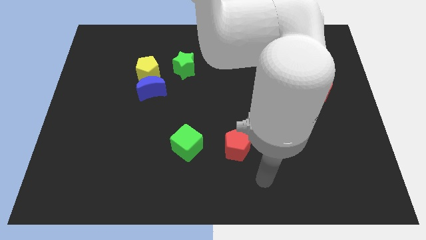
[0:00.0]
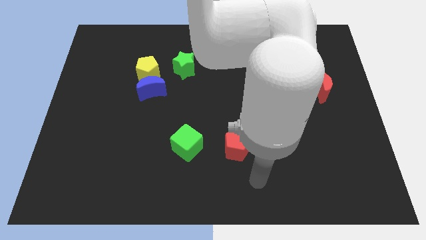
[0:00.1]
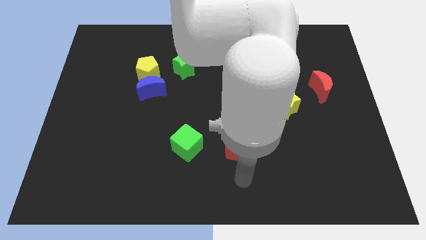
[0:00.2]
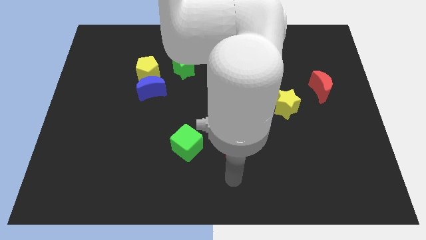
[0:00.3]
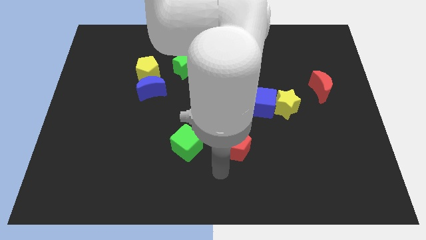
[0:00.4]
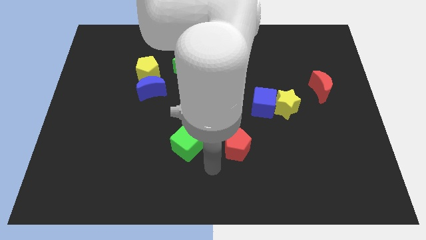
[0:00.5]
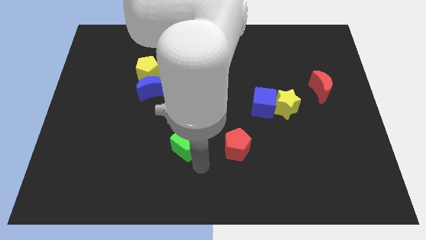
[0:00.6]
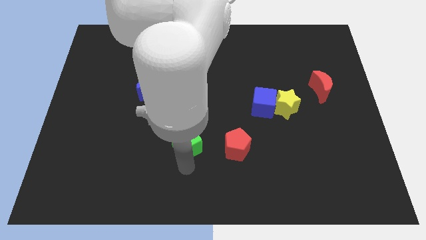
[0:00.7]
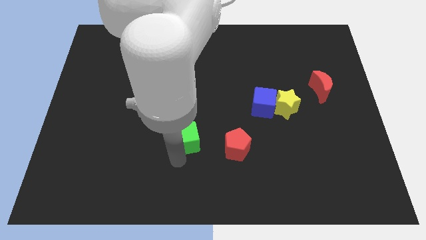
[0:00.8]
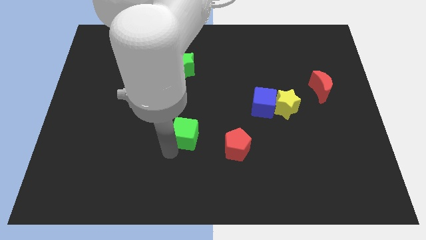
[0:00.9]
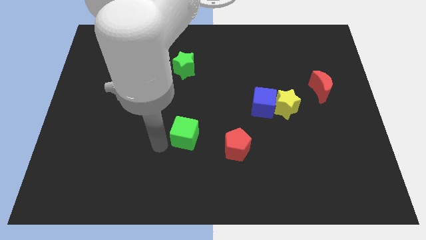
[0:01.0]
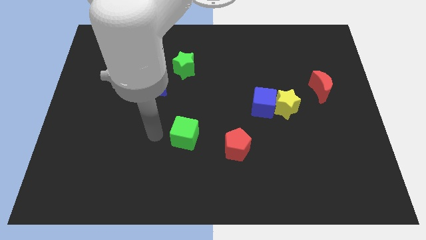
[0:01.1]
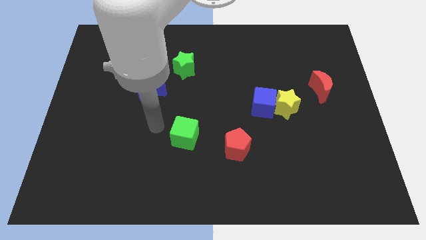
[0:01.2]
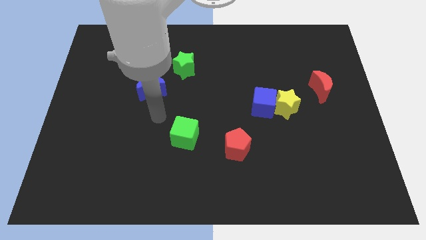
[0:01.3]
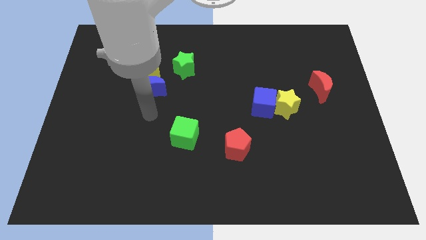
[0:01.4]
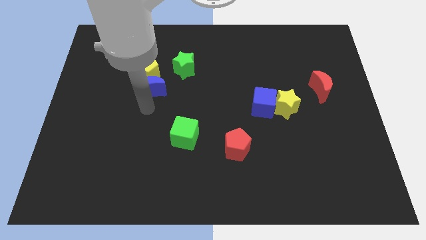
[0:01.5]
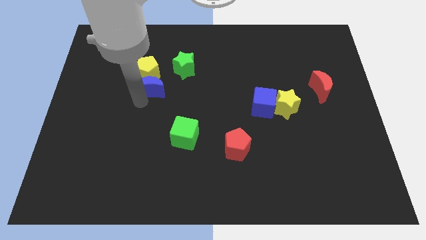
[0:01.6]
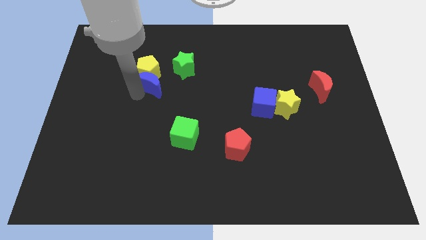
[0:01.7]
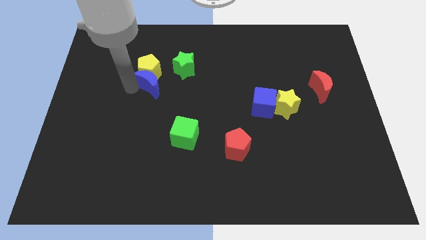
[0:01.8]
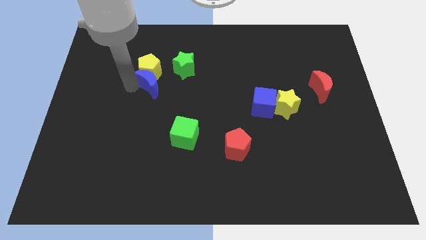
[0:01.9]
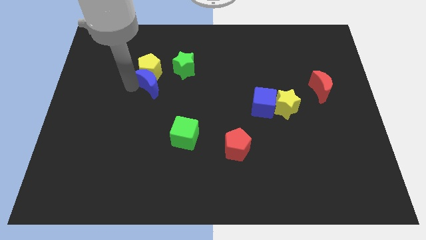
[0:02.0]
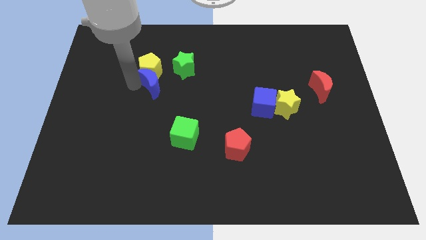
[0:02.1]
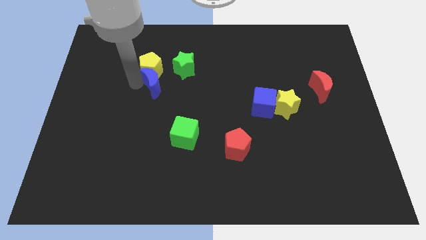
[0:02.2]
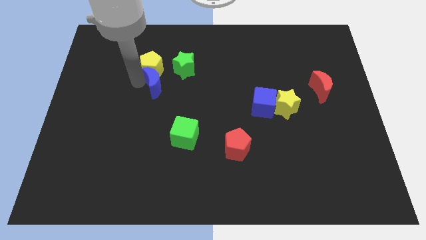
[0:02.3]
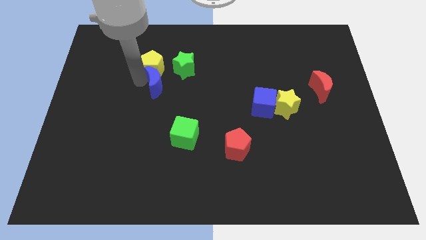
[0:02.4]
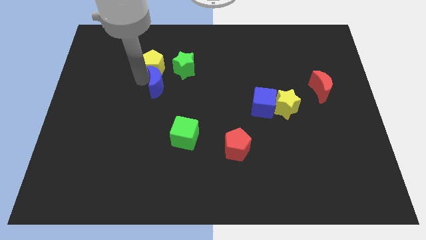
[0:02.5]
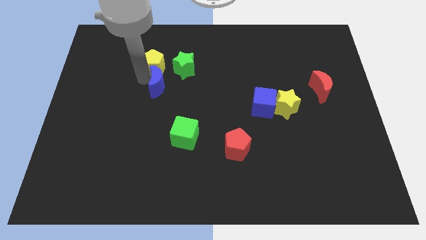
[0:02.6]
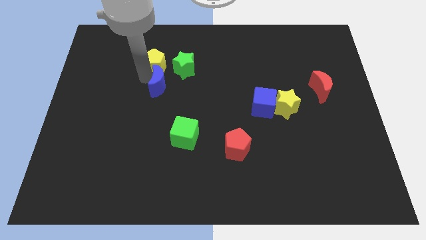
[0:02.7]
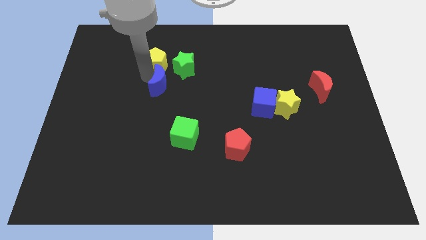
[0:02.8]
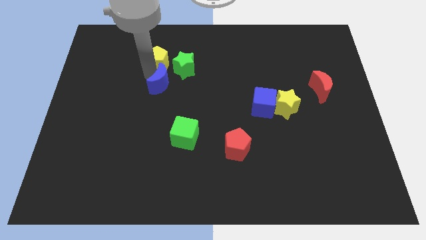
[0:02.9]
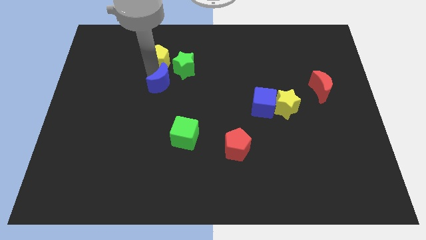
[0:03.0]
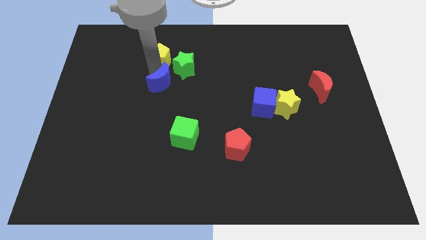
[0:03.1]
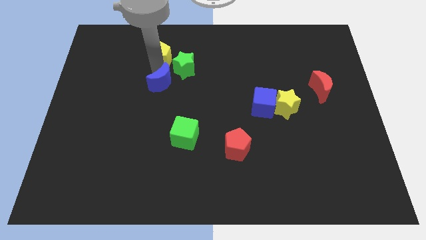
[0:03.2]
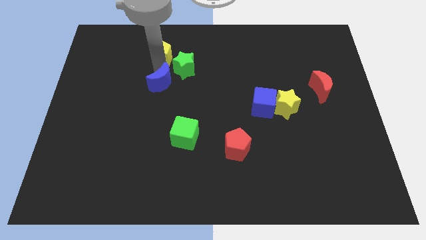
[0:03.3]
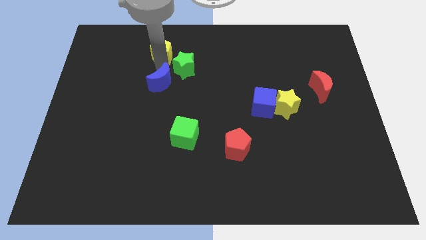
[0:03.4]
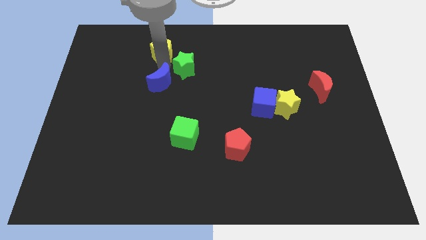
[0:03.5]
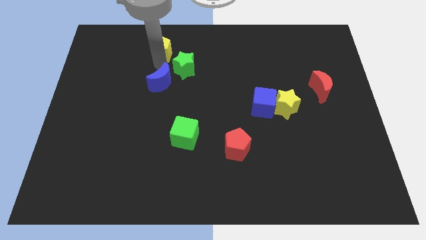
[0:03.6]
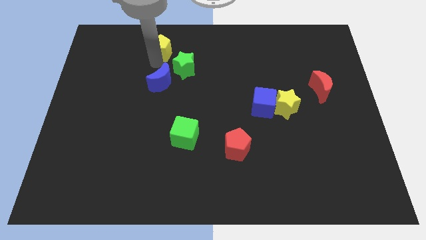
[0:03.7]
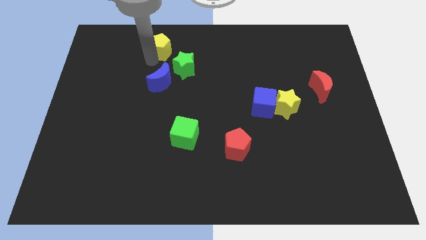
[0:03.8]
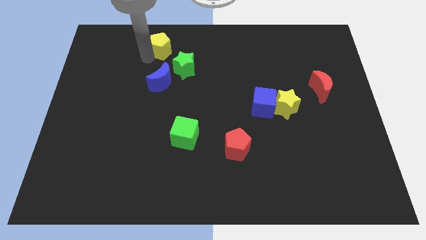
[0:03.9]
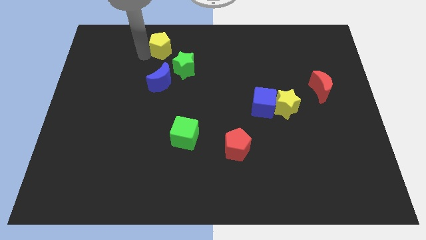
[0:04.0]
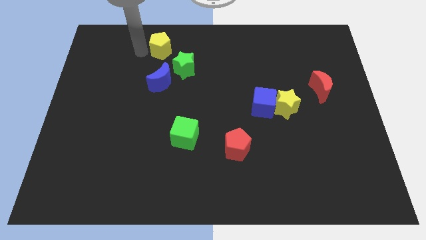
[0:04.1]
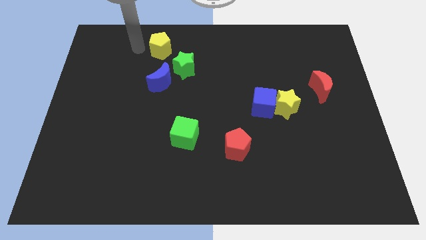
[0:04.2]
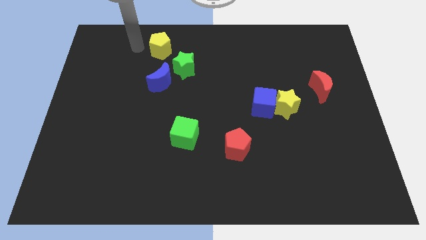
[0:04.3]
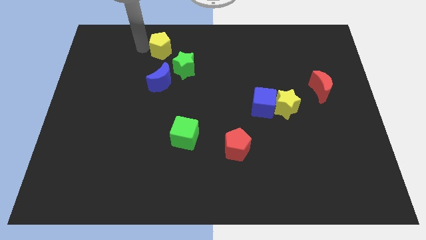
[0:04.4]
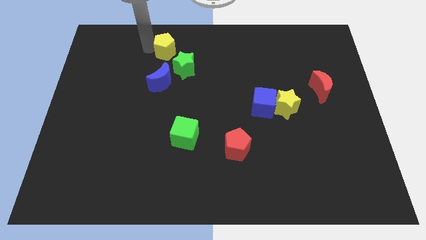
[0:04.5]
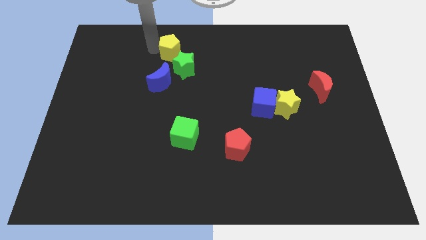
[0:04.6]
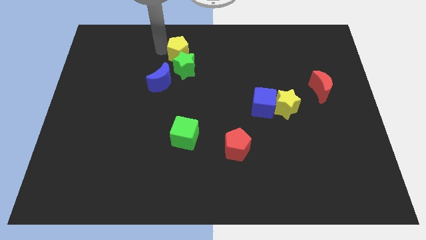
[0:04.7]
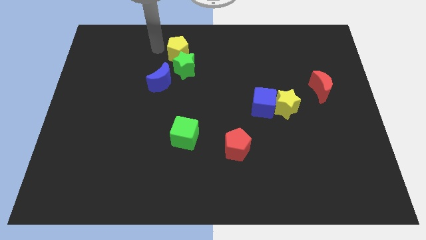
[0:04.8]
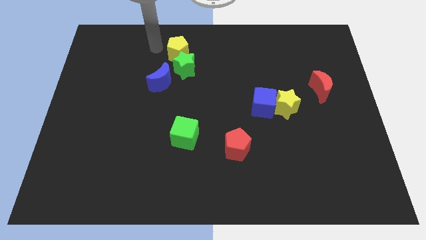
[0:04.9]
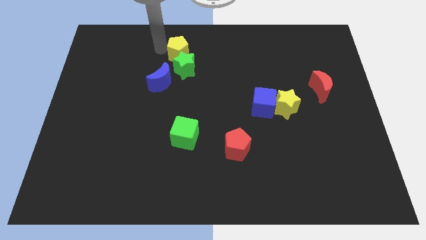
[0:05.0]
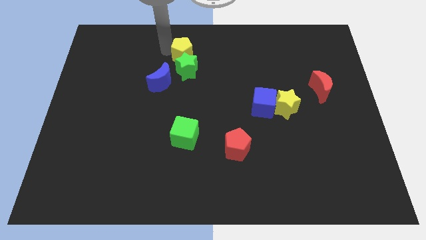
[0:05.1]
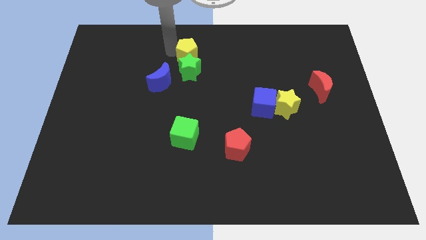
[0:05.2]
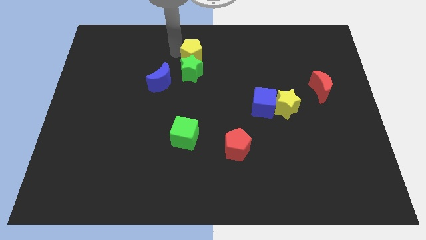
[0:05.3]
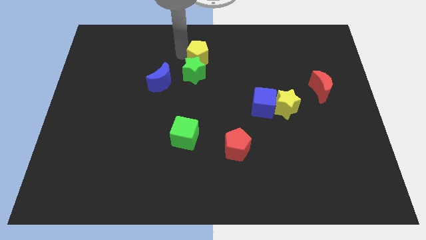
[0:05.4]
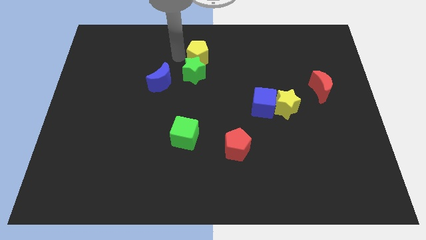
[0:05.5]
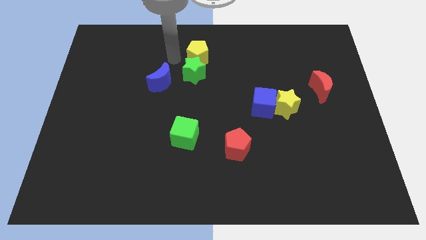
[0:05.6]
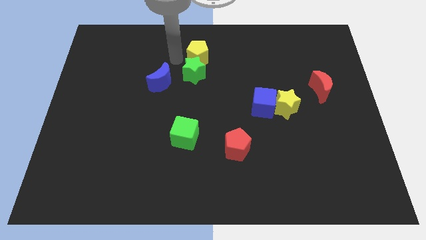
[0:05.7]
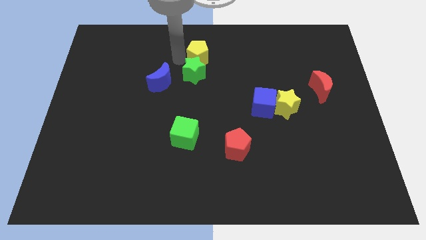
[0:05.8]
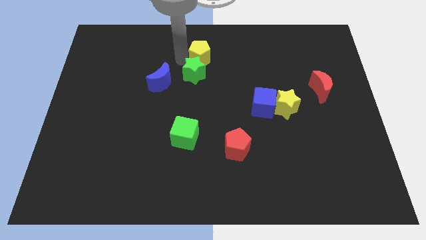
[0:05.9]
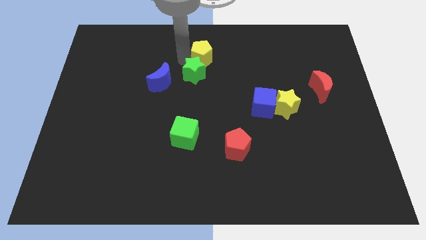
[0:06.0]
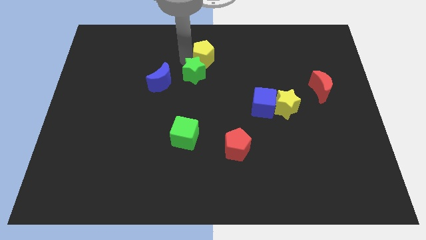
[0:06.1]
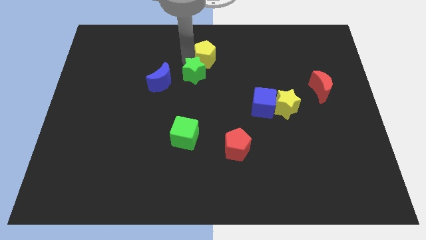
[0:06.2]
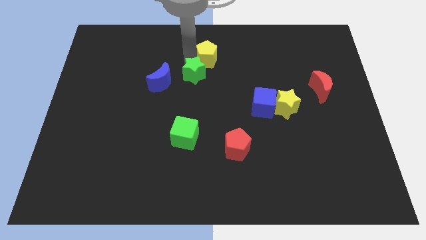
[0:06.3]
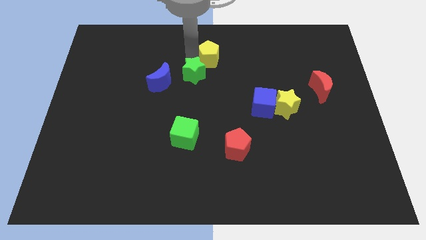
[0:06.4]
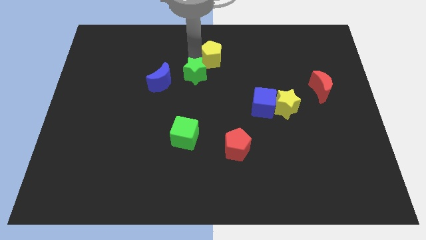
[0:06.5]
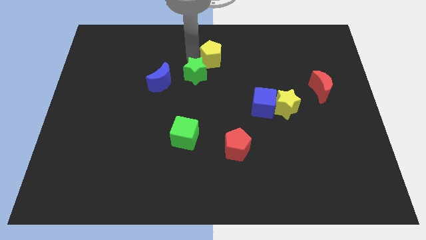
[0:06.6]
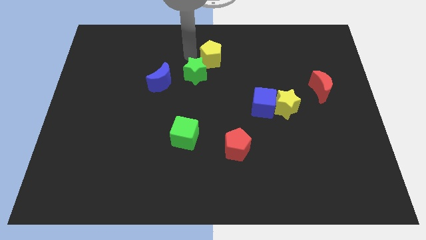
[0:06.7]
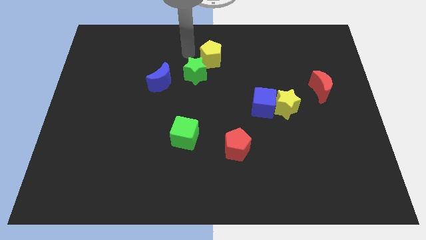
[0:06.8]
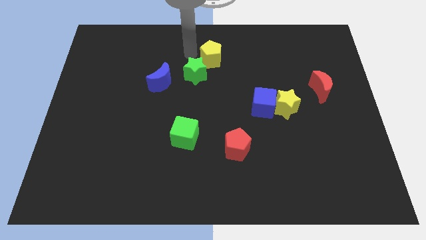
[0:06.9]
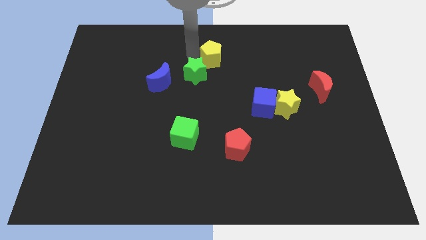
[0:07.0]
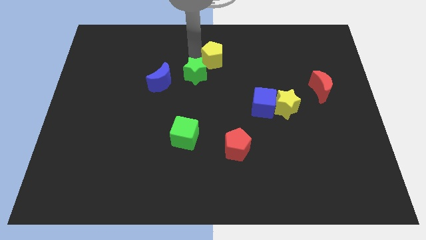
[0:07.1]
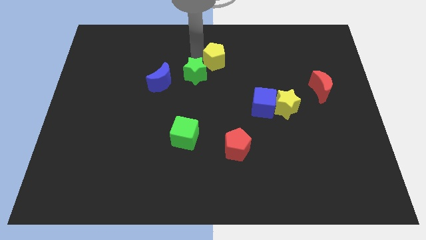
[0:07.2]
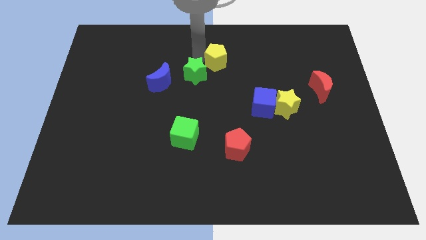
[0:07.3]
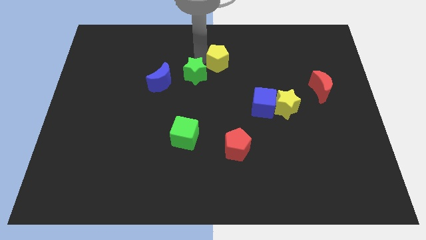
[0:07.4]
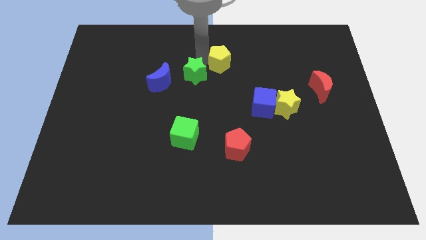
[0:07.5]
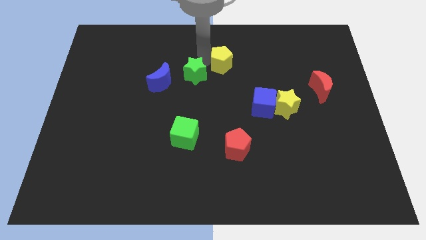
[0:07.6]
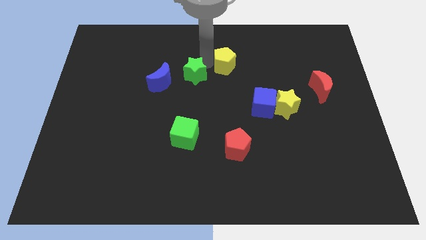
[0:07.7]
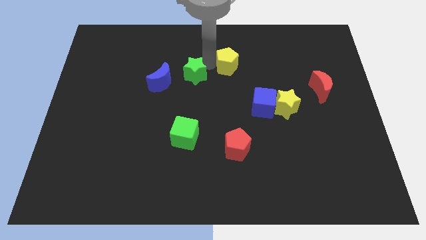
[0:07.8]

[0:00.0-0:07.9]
slide the yellow pentagon right
